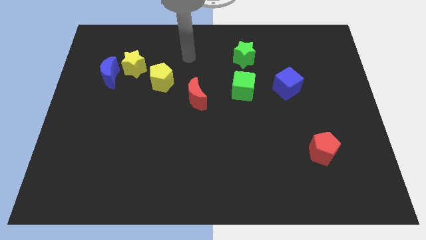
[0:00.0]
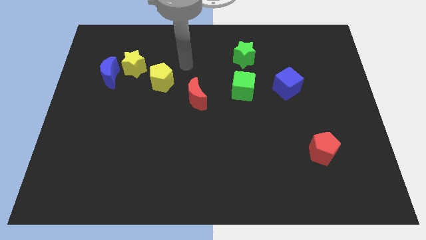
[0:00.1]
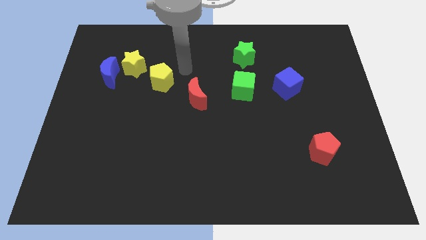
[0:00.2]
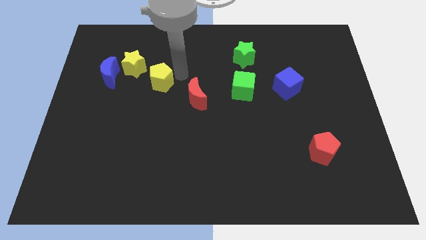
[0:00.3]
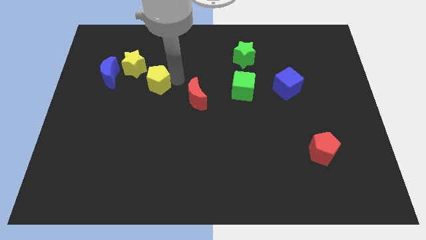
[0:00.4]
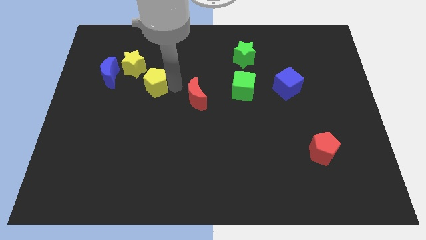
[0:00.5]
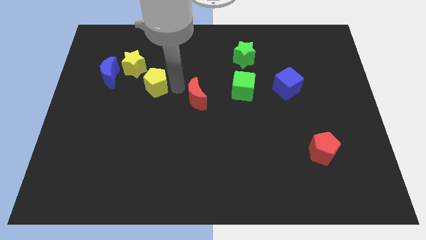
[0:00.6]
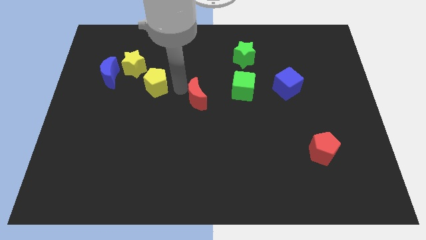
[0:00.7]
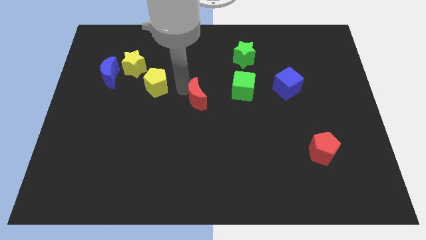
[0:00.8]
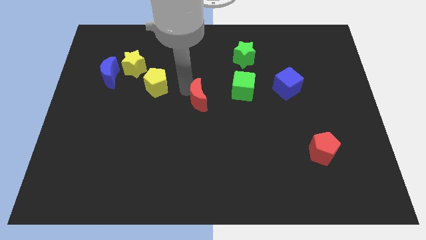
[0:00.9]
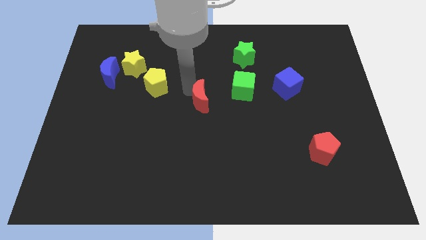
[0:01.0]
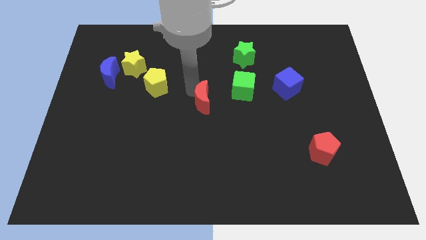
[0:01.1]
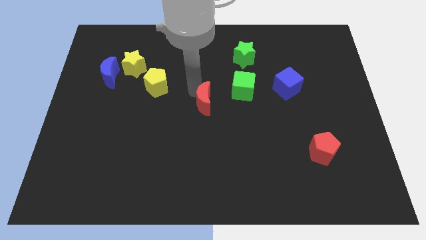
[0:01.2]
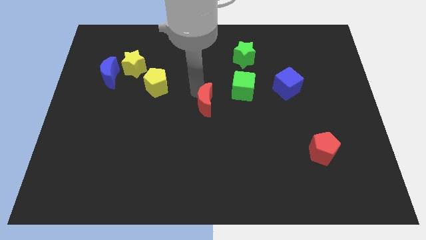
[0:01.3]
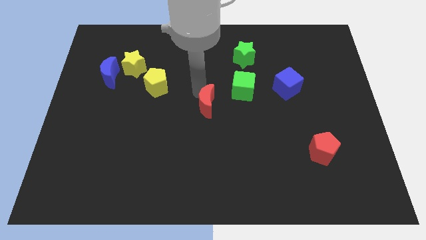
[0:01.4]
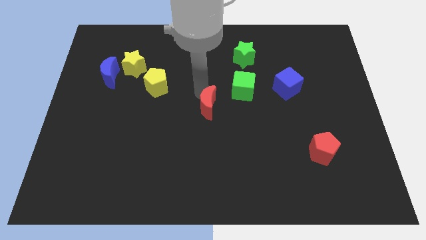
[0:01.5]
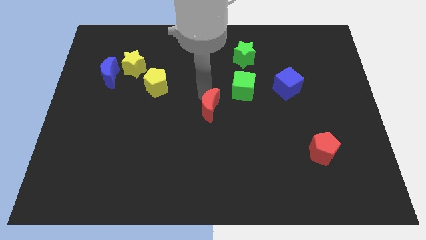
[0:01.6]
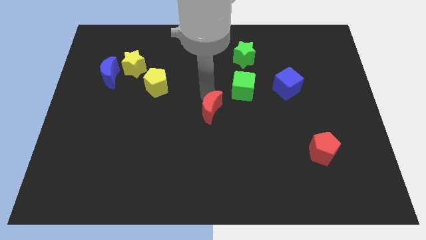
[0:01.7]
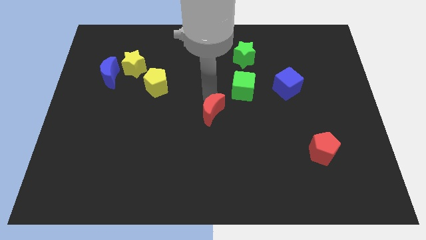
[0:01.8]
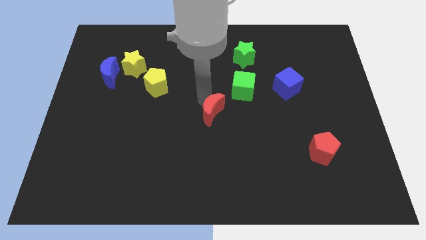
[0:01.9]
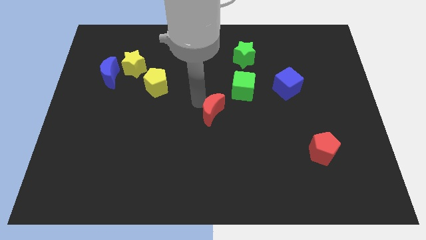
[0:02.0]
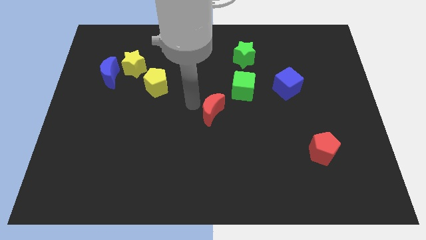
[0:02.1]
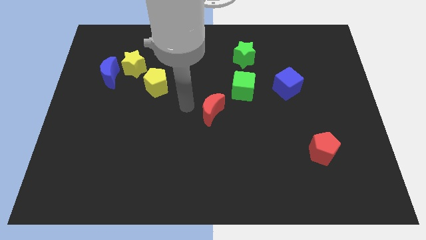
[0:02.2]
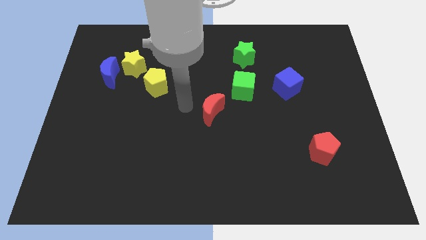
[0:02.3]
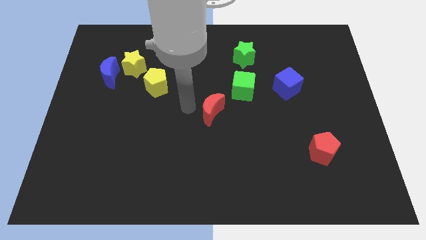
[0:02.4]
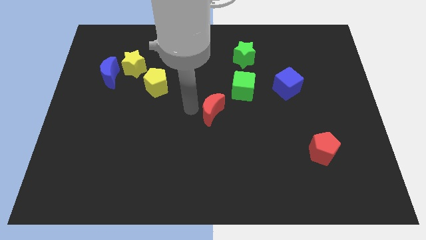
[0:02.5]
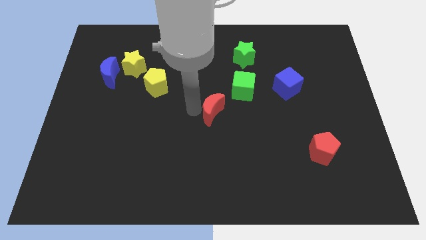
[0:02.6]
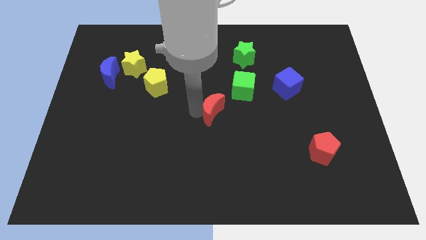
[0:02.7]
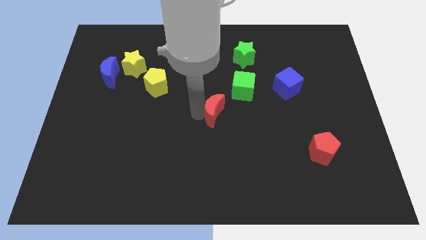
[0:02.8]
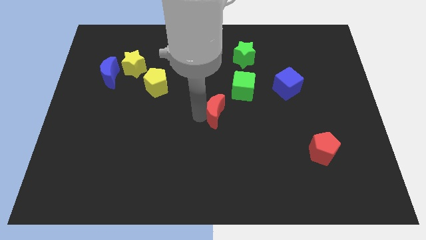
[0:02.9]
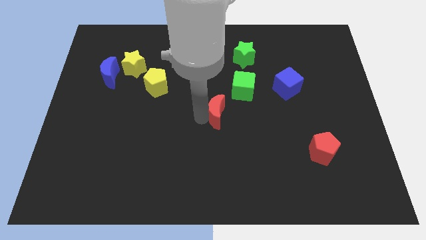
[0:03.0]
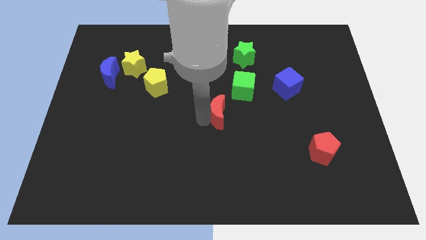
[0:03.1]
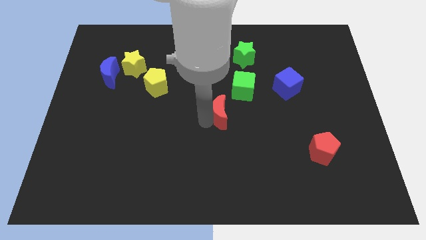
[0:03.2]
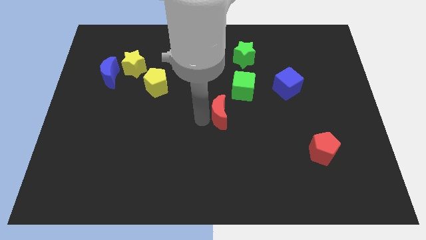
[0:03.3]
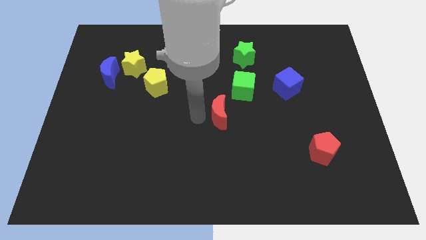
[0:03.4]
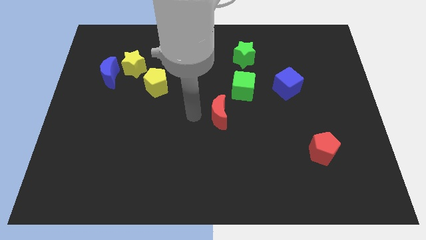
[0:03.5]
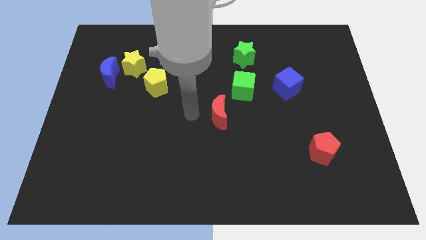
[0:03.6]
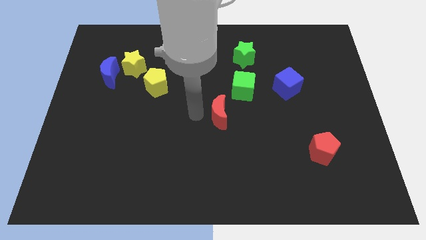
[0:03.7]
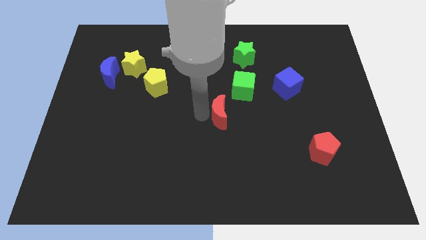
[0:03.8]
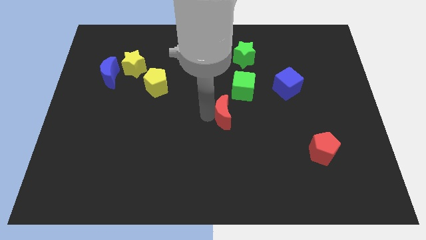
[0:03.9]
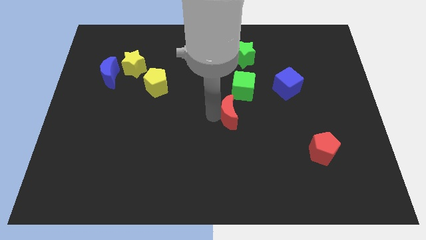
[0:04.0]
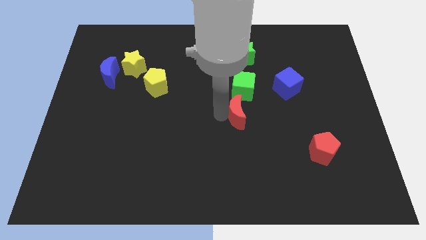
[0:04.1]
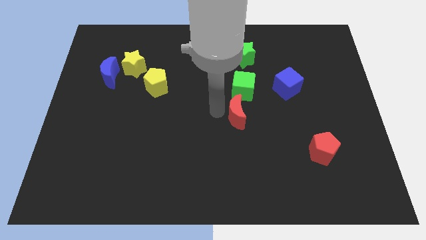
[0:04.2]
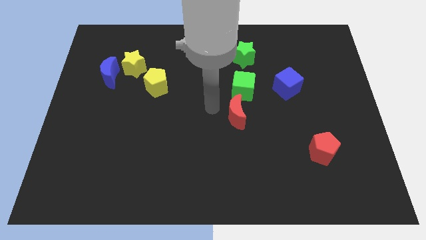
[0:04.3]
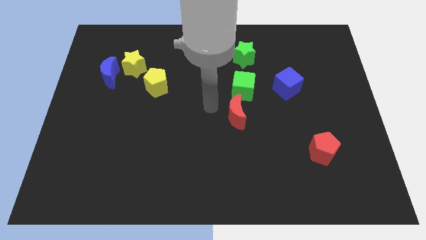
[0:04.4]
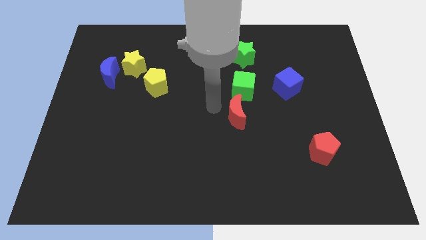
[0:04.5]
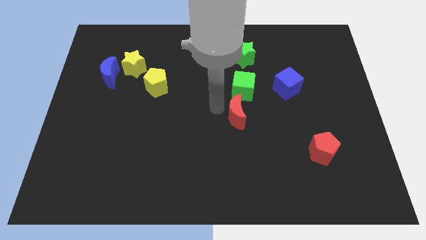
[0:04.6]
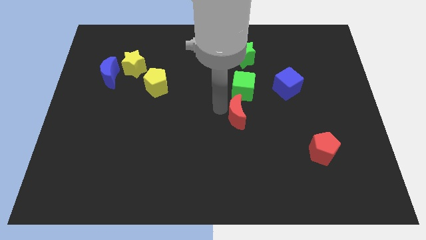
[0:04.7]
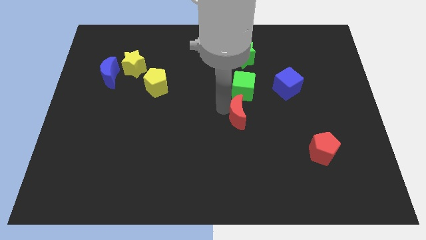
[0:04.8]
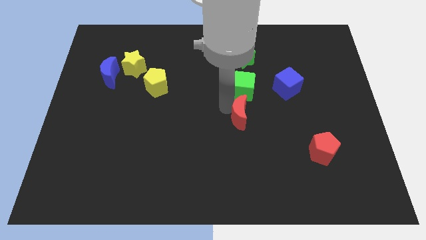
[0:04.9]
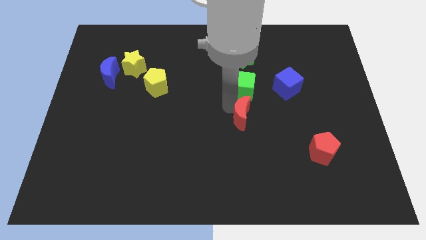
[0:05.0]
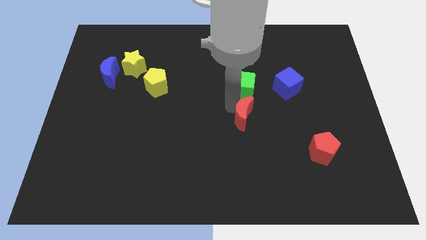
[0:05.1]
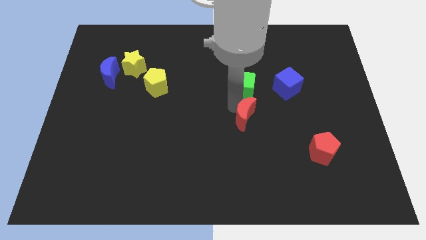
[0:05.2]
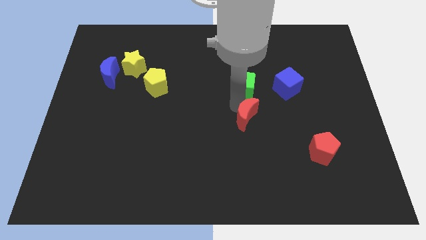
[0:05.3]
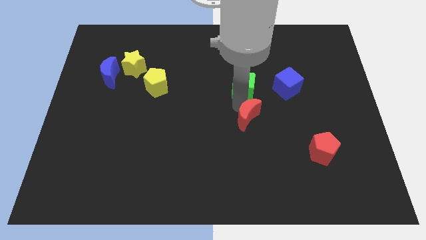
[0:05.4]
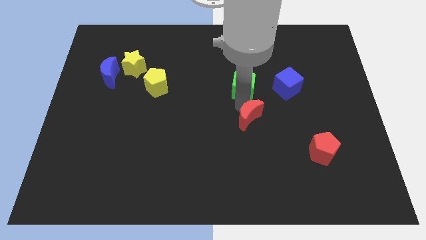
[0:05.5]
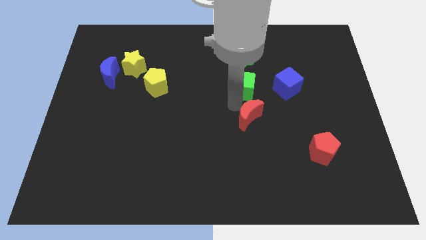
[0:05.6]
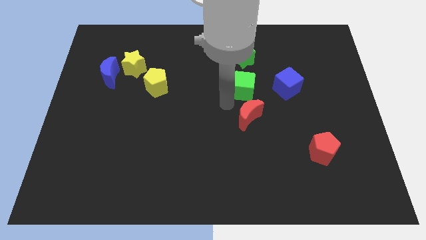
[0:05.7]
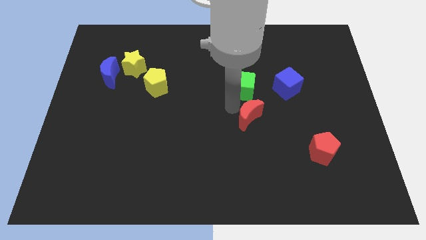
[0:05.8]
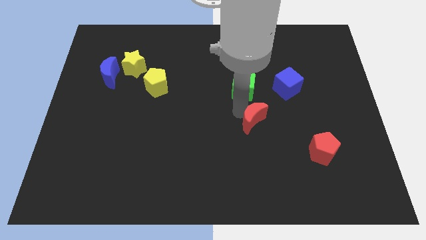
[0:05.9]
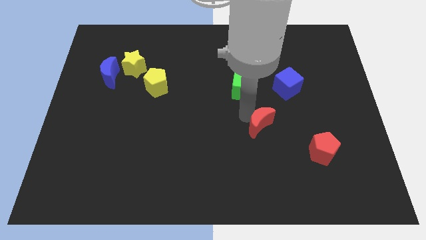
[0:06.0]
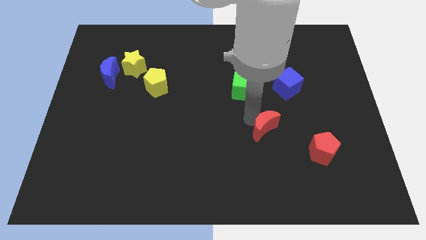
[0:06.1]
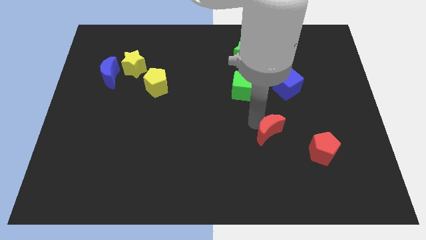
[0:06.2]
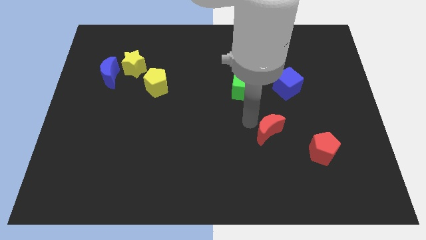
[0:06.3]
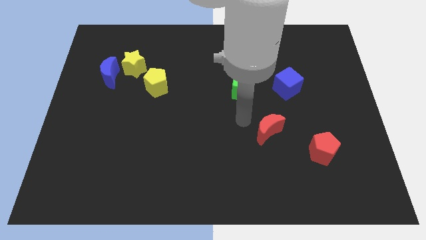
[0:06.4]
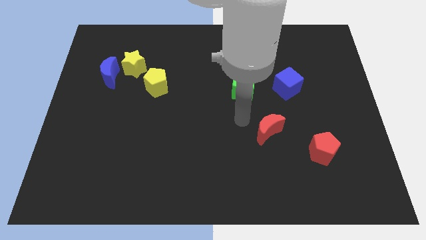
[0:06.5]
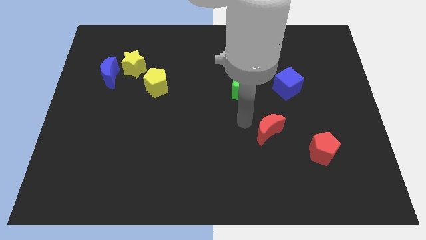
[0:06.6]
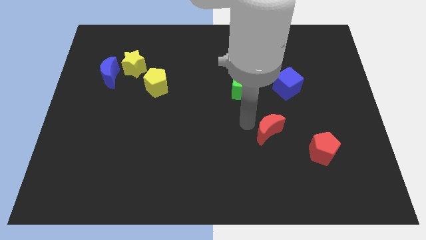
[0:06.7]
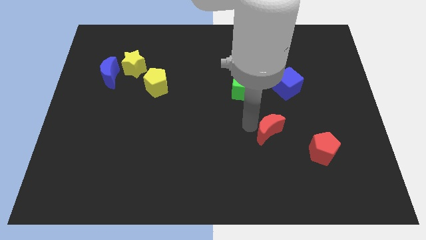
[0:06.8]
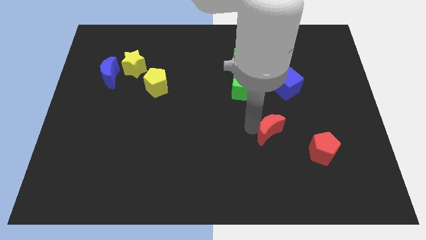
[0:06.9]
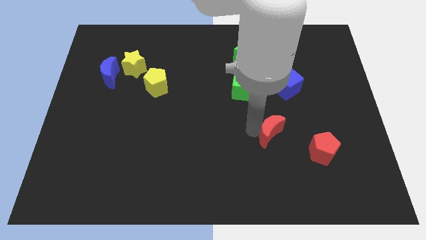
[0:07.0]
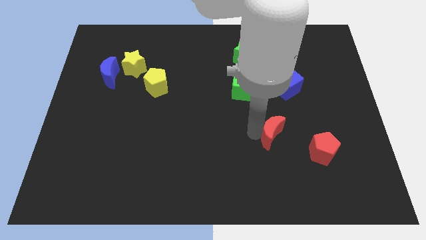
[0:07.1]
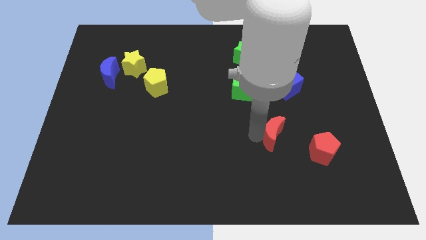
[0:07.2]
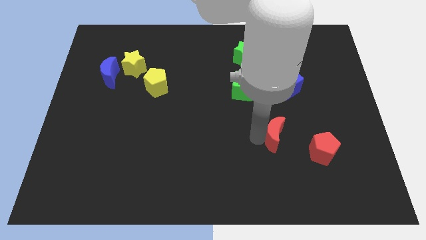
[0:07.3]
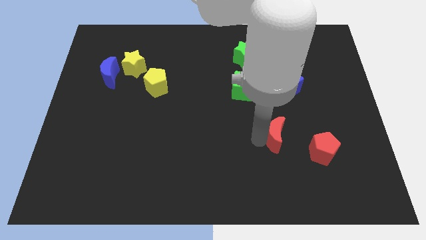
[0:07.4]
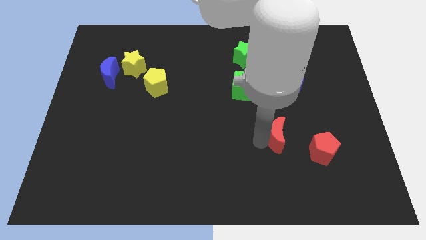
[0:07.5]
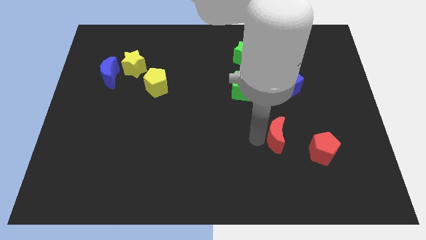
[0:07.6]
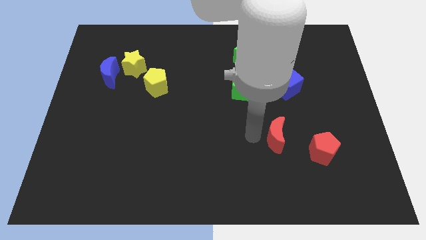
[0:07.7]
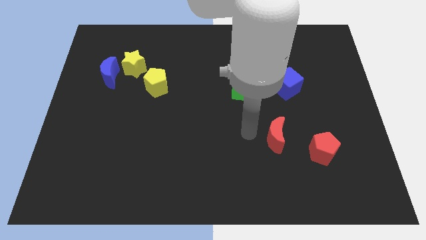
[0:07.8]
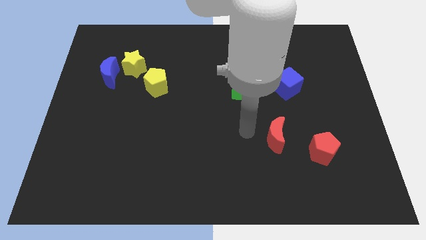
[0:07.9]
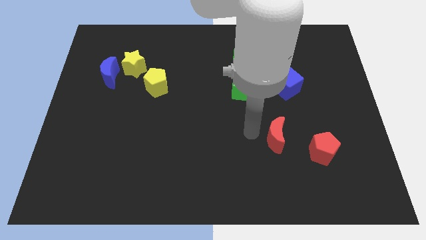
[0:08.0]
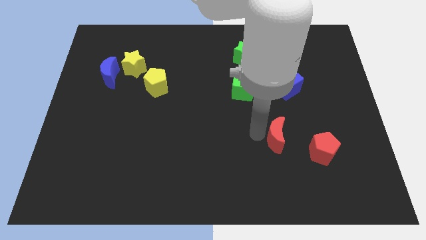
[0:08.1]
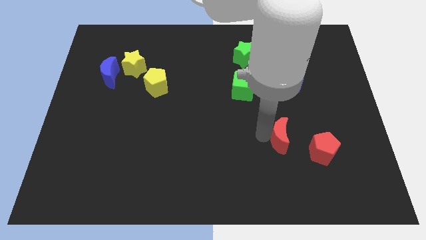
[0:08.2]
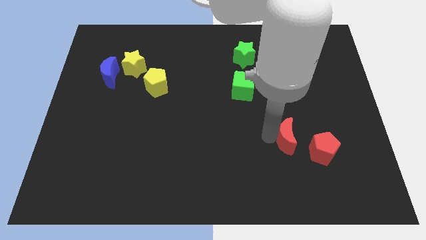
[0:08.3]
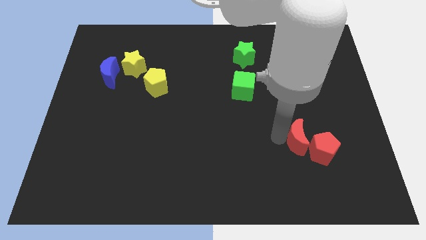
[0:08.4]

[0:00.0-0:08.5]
push the red moon close to the red pentagon
